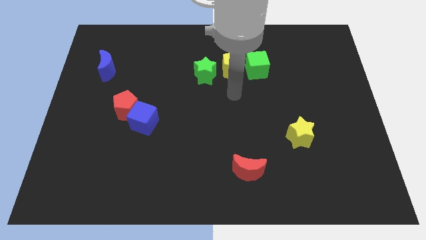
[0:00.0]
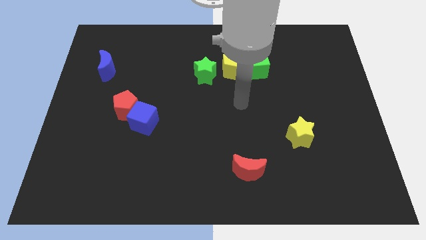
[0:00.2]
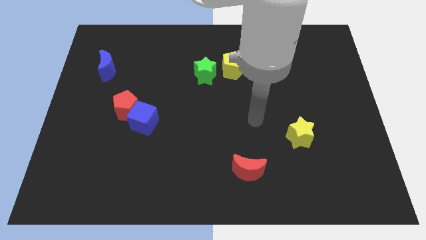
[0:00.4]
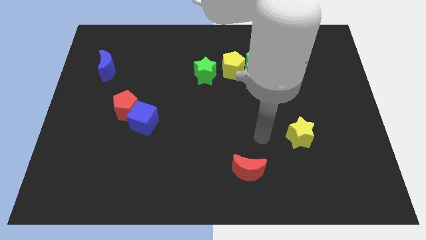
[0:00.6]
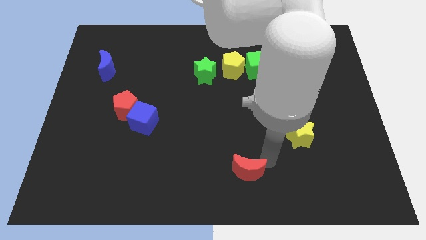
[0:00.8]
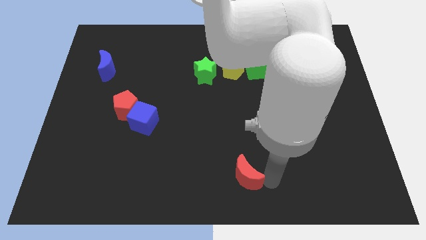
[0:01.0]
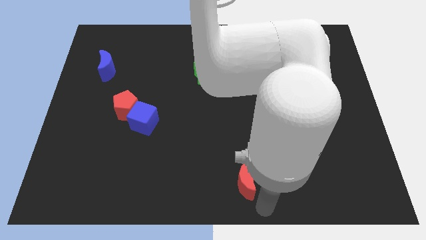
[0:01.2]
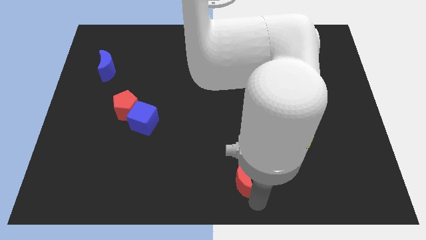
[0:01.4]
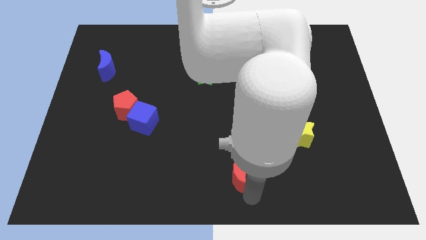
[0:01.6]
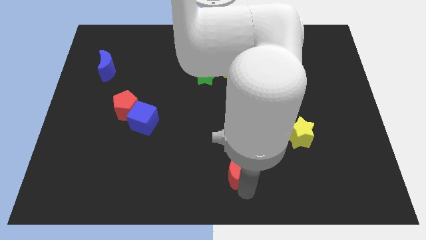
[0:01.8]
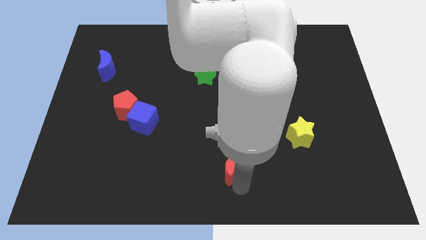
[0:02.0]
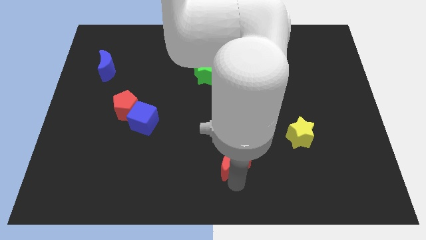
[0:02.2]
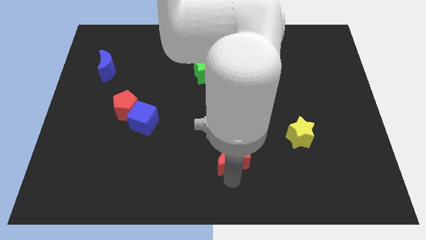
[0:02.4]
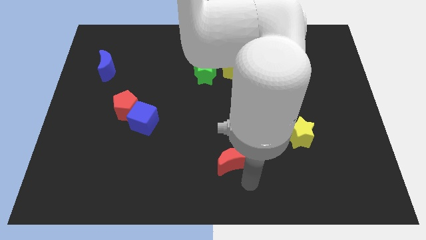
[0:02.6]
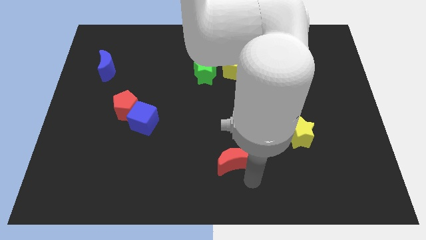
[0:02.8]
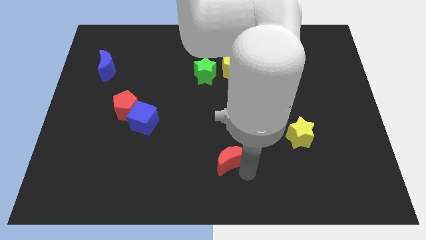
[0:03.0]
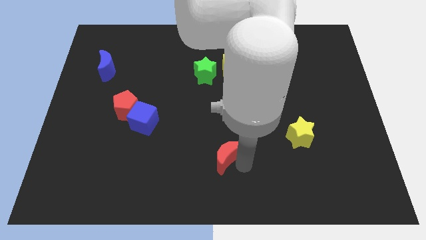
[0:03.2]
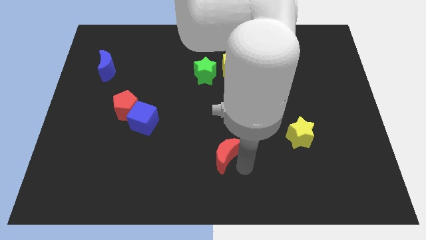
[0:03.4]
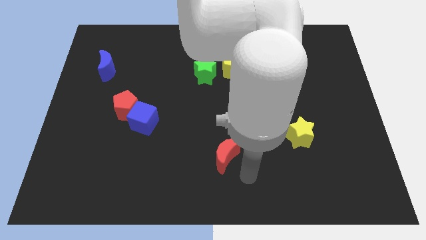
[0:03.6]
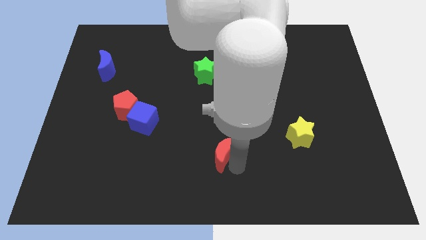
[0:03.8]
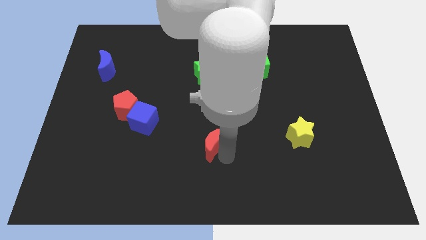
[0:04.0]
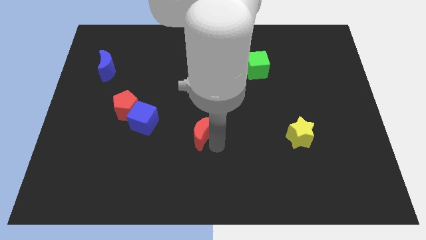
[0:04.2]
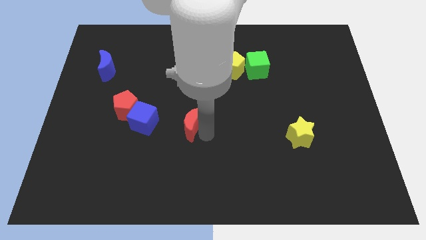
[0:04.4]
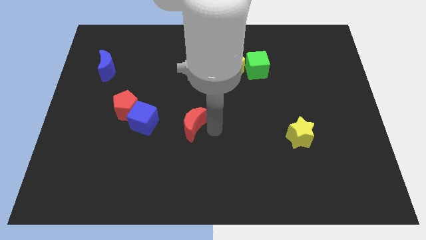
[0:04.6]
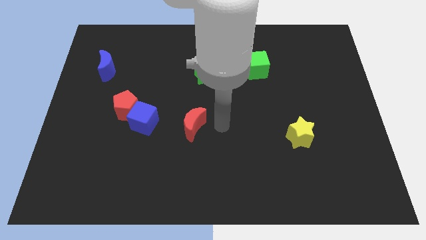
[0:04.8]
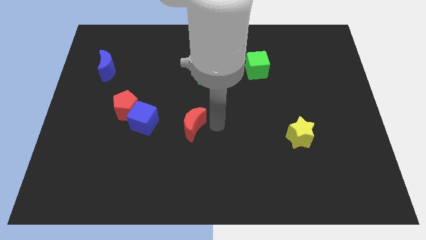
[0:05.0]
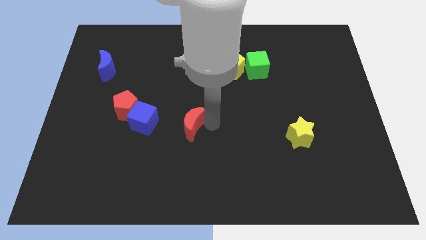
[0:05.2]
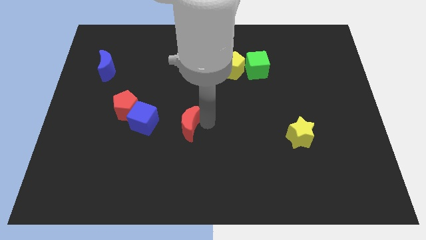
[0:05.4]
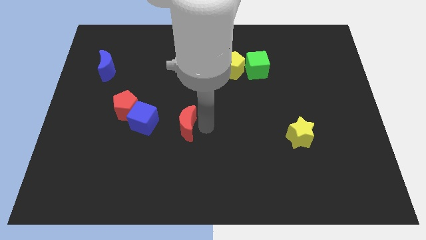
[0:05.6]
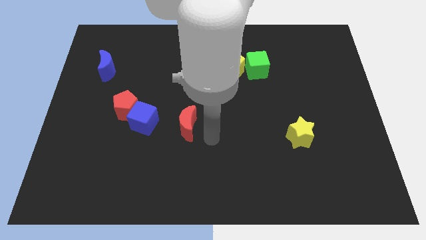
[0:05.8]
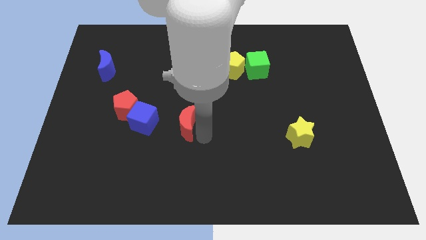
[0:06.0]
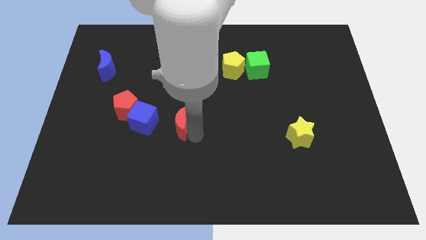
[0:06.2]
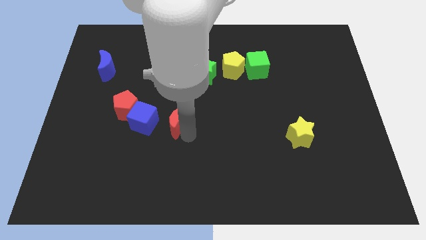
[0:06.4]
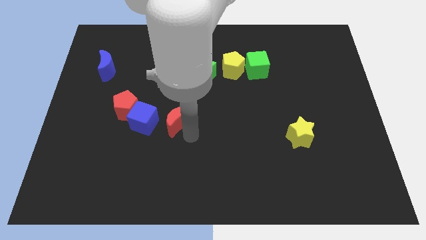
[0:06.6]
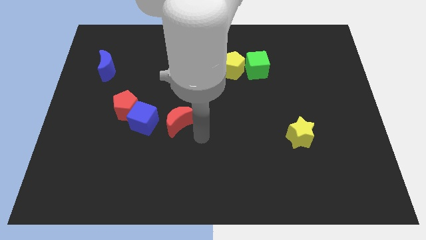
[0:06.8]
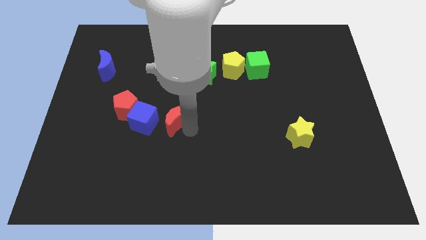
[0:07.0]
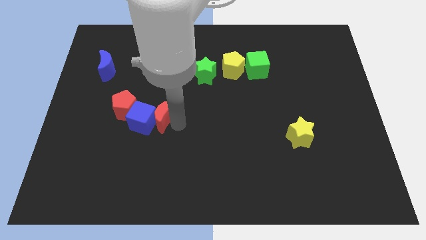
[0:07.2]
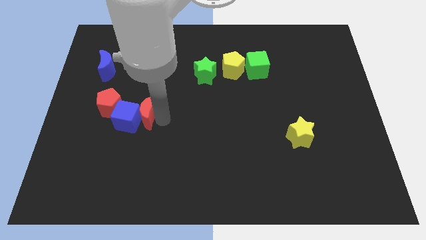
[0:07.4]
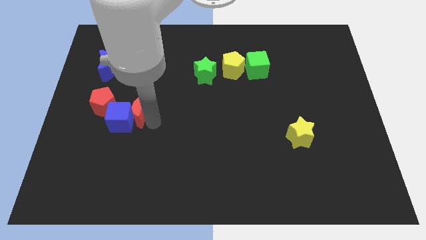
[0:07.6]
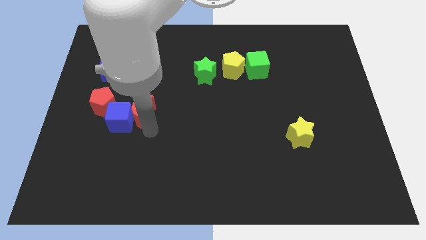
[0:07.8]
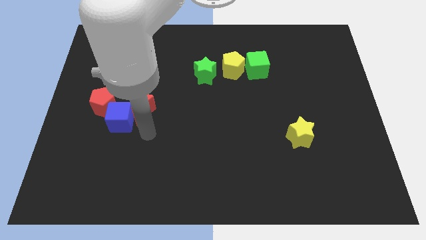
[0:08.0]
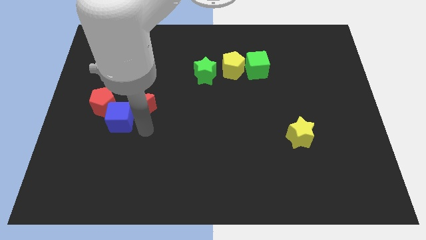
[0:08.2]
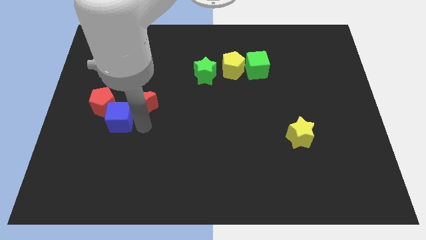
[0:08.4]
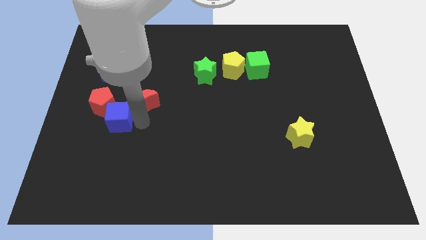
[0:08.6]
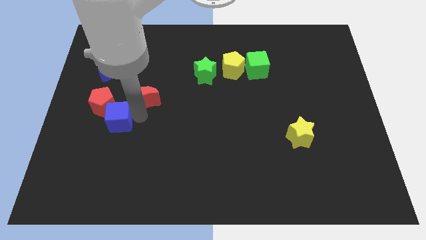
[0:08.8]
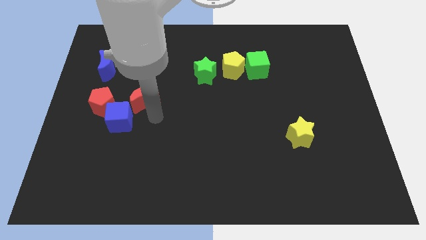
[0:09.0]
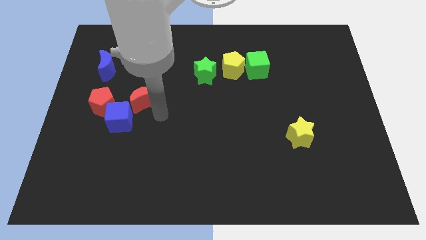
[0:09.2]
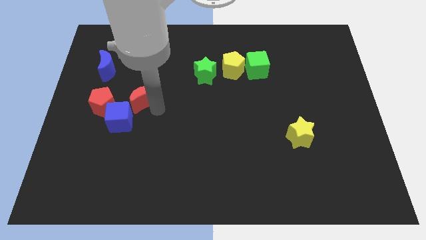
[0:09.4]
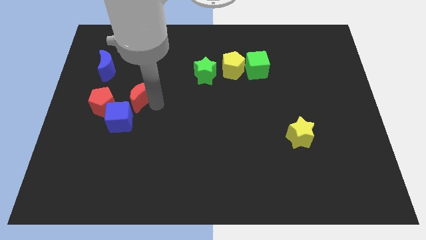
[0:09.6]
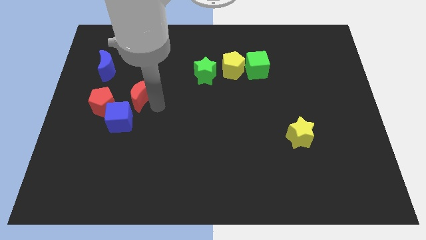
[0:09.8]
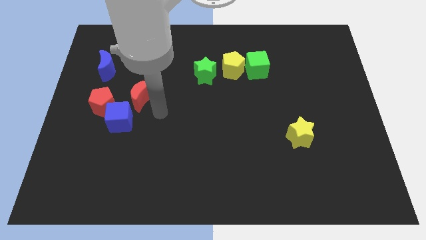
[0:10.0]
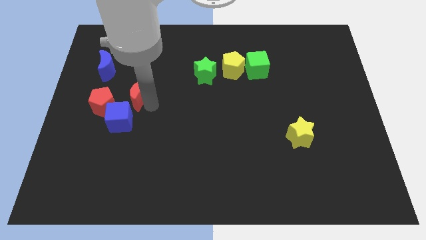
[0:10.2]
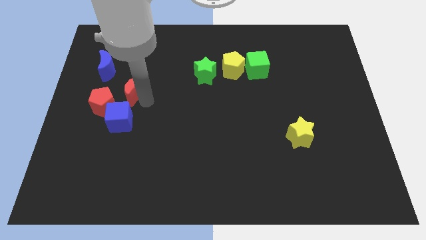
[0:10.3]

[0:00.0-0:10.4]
put the red moon diagonally down and to the right of the blue moon

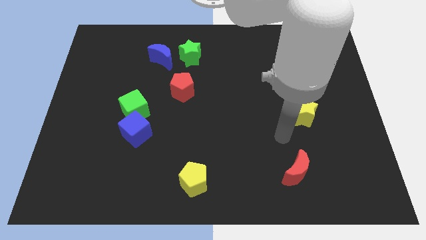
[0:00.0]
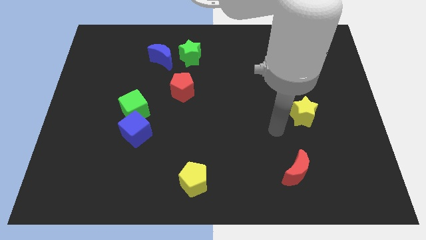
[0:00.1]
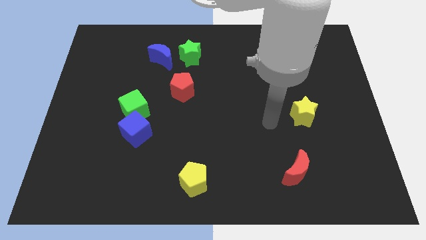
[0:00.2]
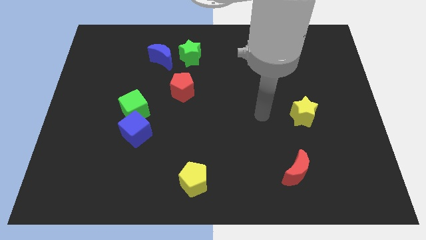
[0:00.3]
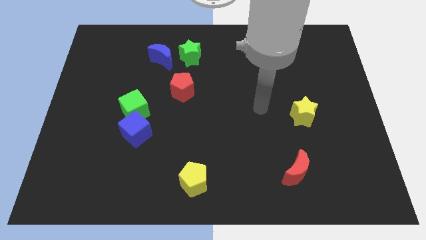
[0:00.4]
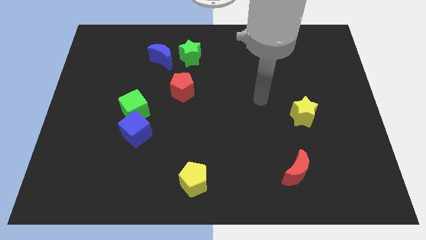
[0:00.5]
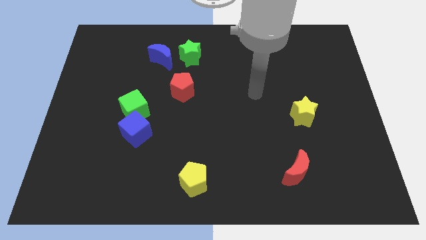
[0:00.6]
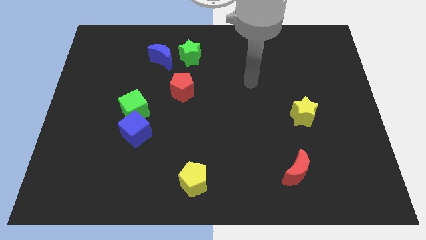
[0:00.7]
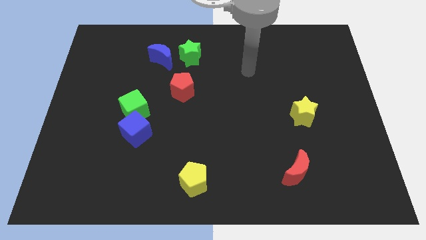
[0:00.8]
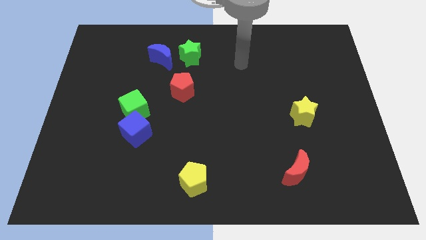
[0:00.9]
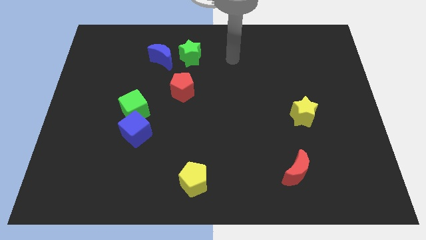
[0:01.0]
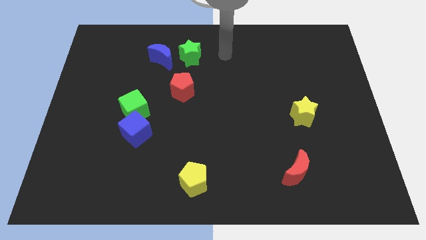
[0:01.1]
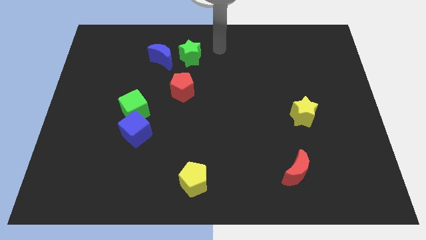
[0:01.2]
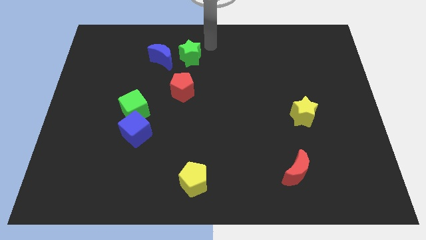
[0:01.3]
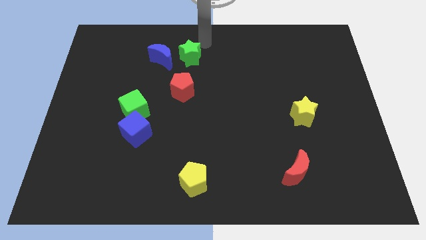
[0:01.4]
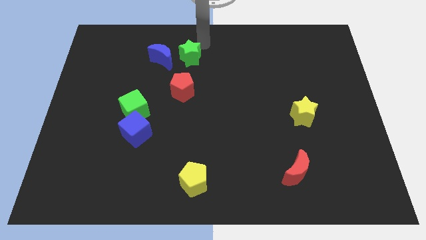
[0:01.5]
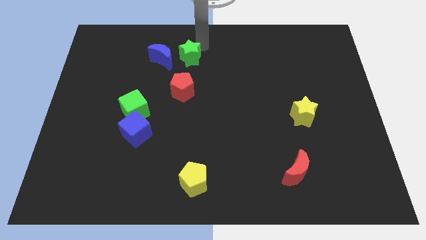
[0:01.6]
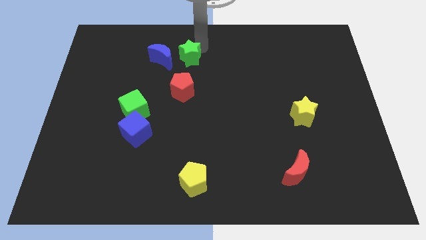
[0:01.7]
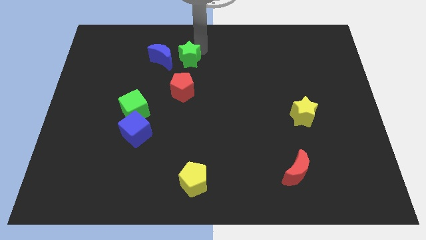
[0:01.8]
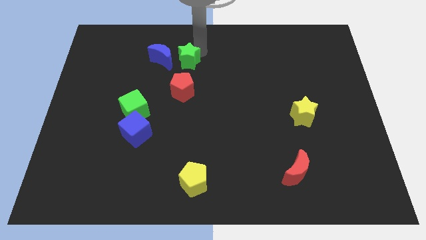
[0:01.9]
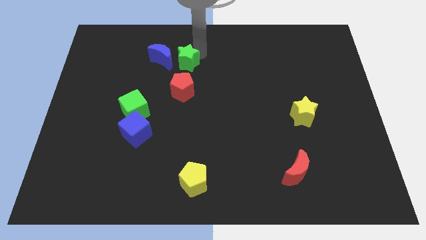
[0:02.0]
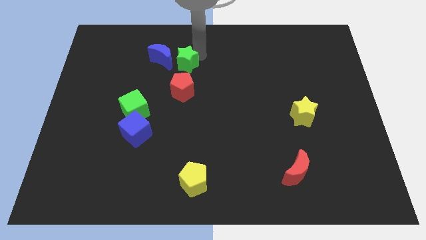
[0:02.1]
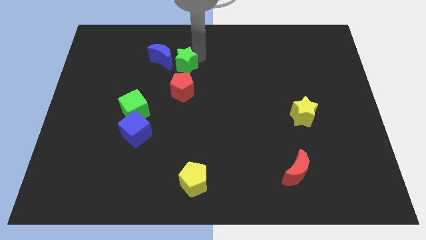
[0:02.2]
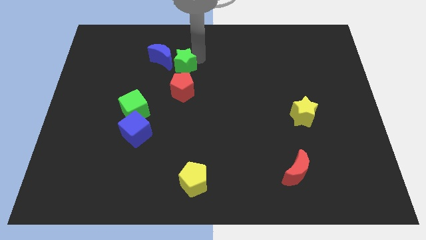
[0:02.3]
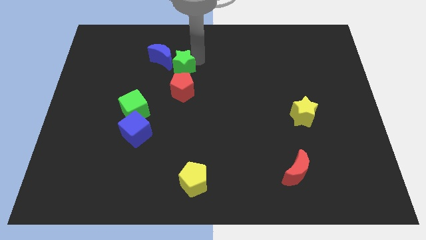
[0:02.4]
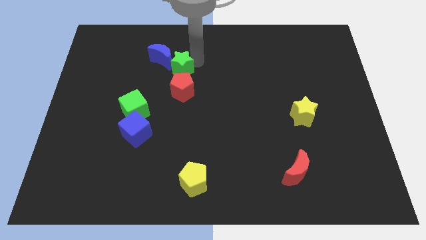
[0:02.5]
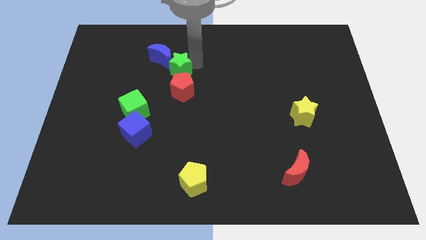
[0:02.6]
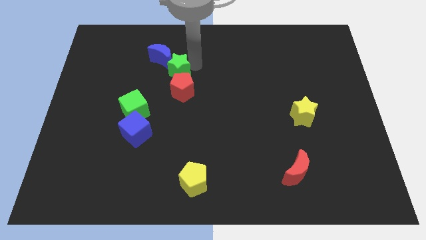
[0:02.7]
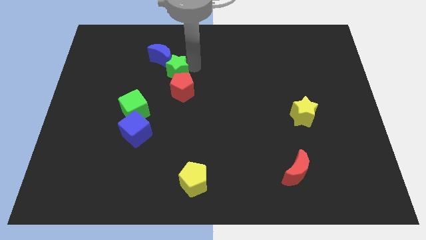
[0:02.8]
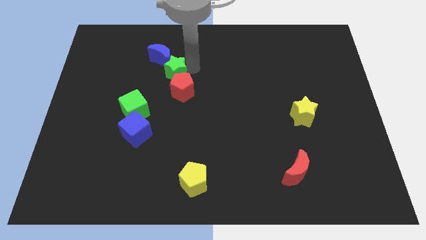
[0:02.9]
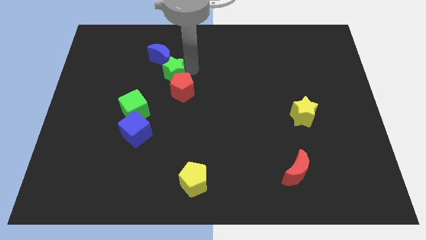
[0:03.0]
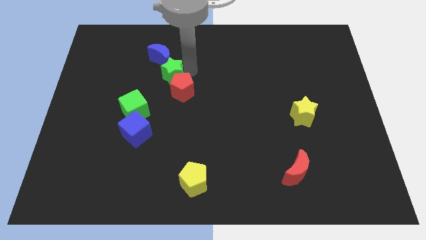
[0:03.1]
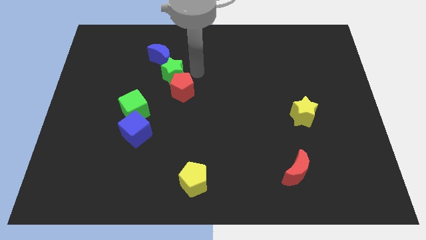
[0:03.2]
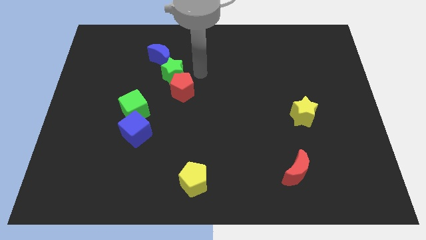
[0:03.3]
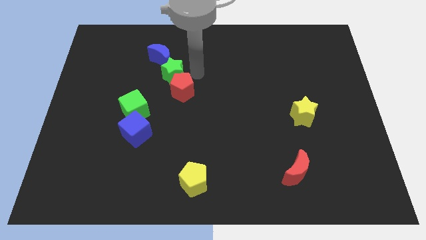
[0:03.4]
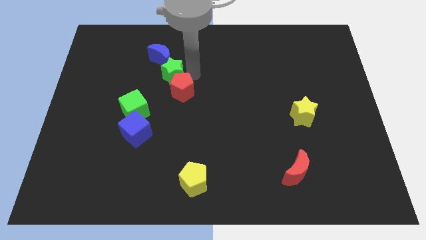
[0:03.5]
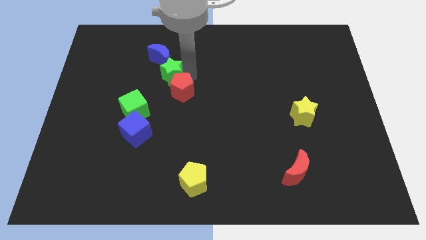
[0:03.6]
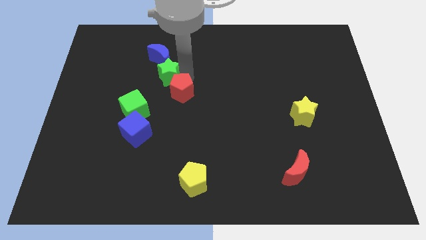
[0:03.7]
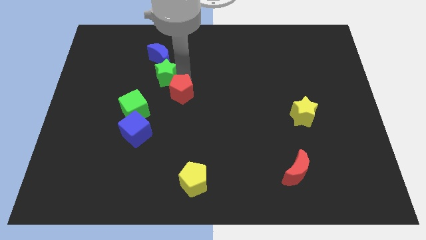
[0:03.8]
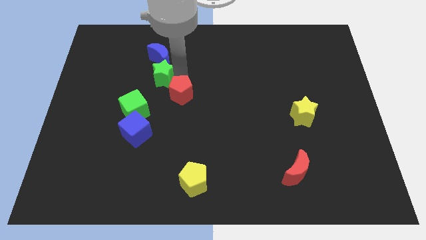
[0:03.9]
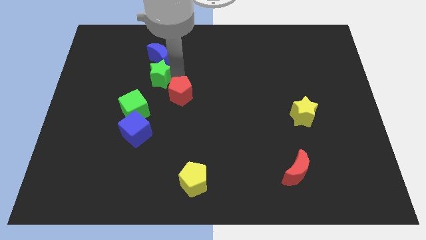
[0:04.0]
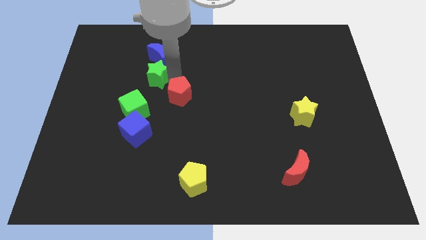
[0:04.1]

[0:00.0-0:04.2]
move the green star to the top of the green cube
